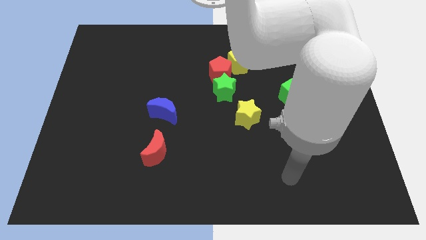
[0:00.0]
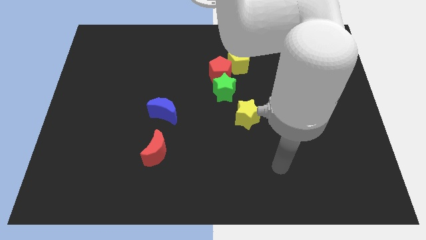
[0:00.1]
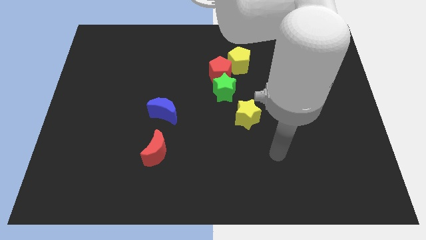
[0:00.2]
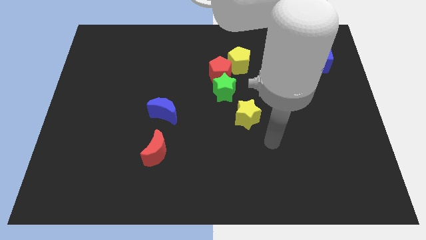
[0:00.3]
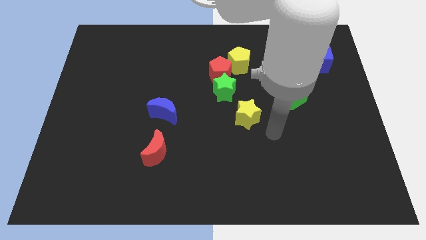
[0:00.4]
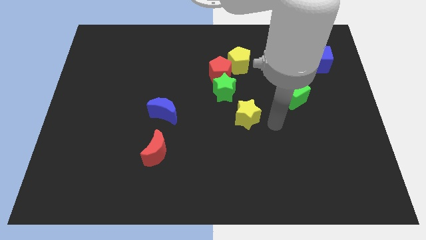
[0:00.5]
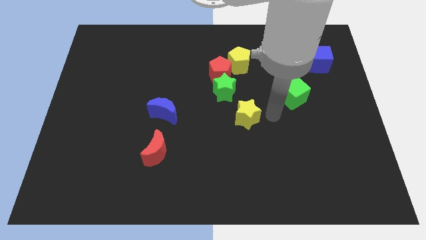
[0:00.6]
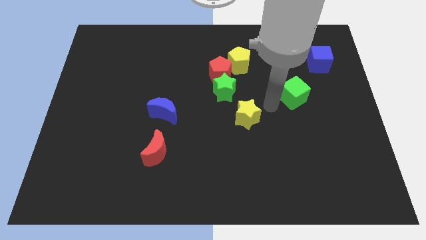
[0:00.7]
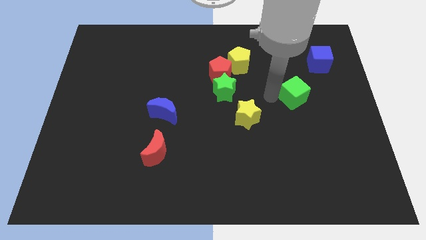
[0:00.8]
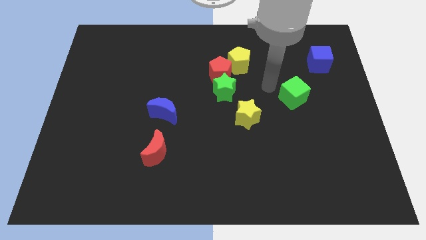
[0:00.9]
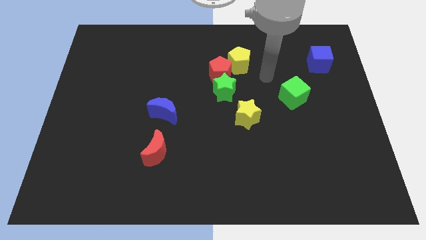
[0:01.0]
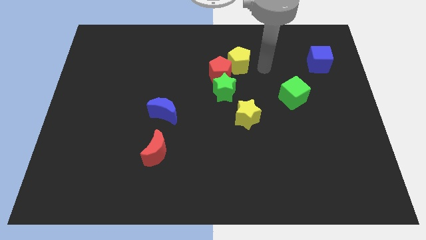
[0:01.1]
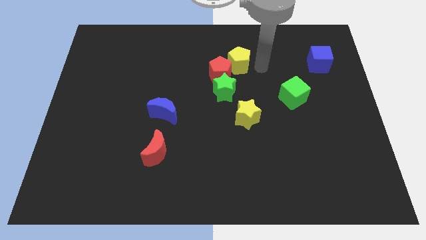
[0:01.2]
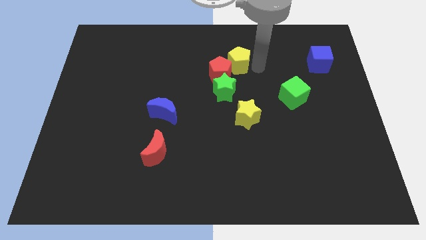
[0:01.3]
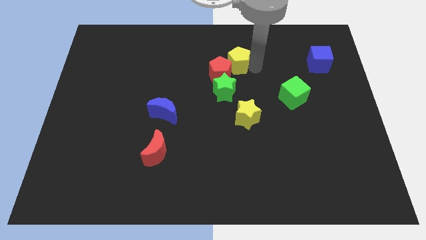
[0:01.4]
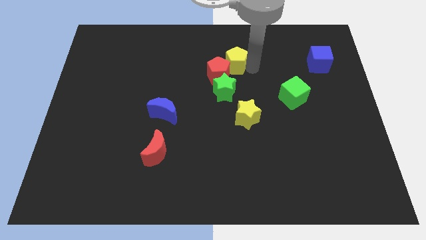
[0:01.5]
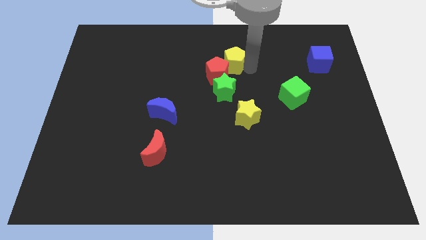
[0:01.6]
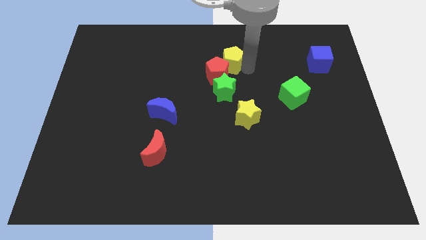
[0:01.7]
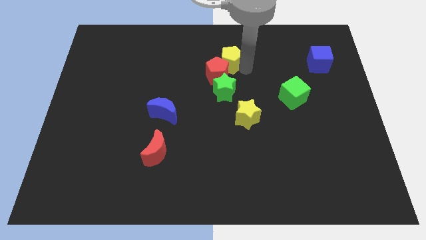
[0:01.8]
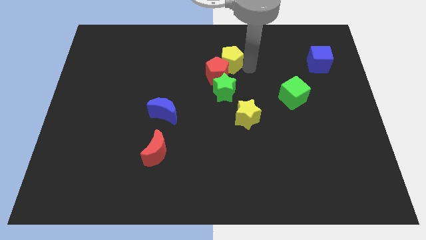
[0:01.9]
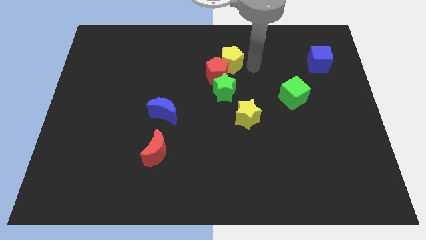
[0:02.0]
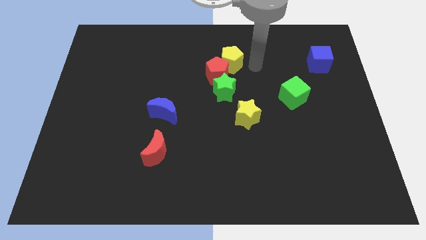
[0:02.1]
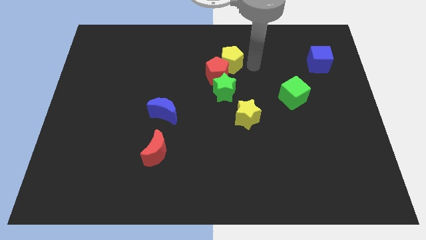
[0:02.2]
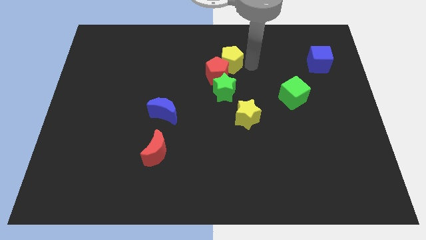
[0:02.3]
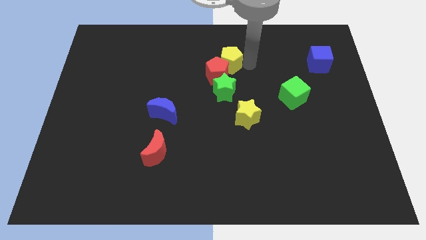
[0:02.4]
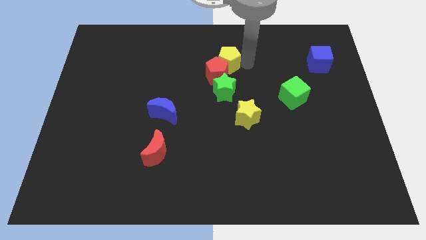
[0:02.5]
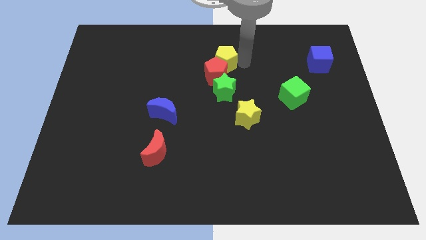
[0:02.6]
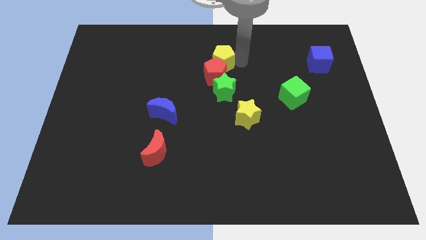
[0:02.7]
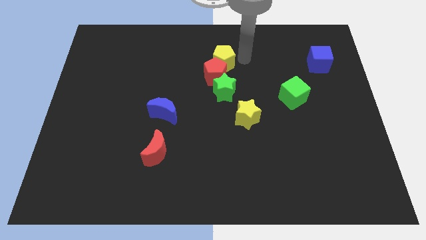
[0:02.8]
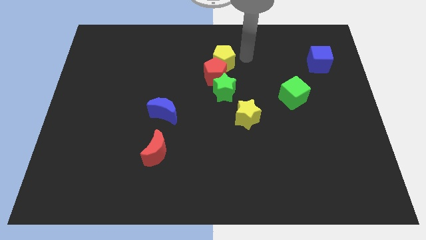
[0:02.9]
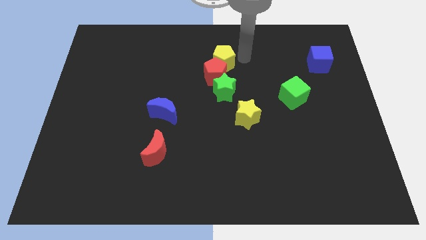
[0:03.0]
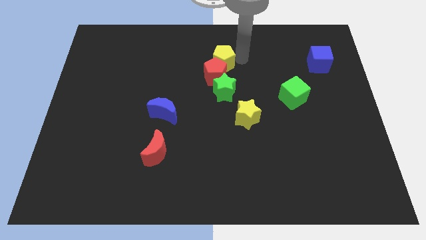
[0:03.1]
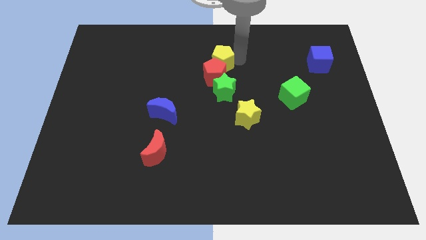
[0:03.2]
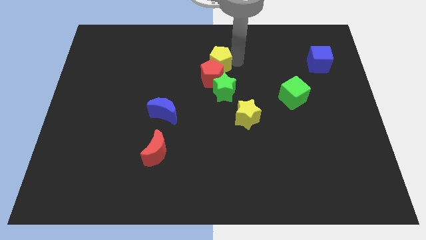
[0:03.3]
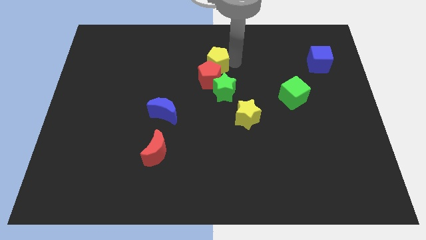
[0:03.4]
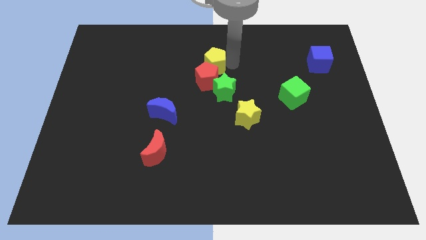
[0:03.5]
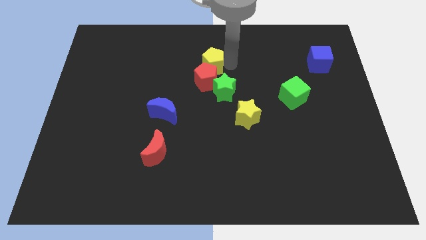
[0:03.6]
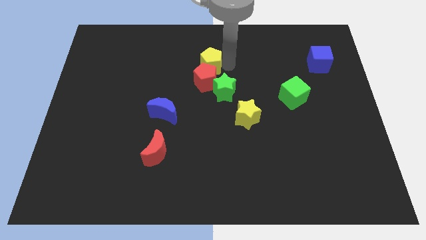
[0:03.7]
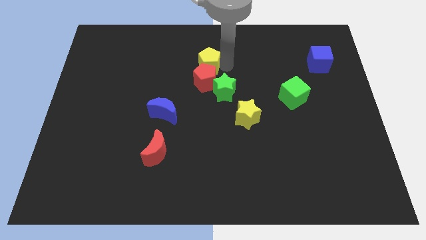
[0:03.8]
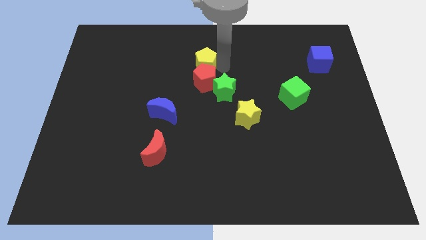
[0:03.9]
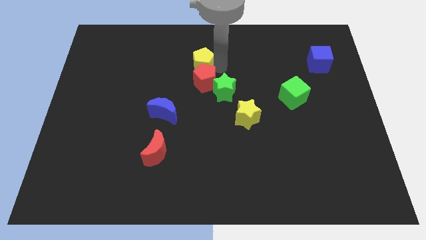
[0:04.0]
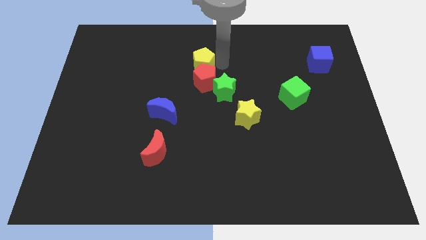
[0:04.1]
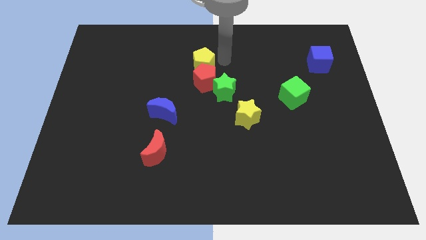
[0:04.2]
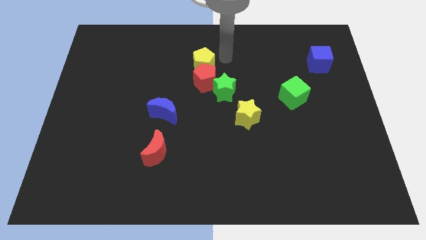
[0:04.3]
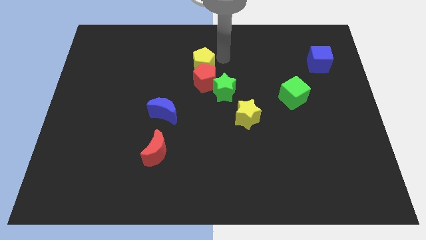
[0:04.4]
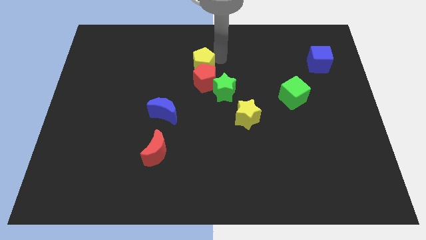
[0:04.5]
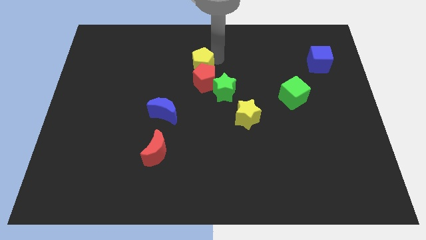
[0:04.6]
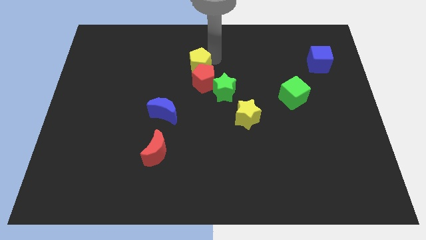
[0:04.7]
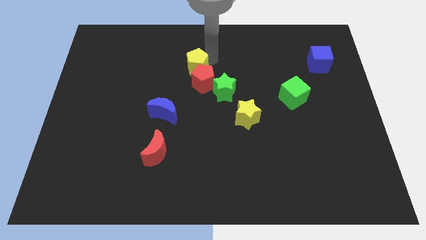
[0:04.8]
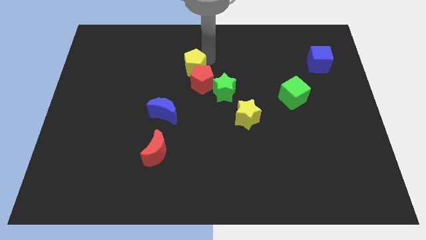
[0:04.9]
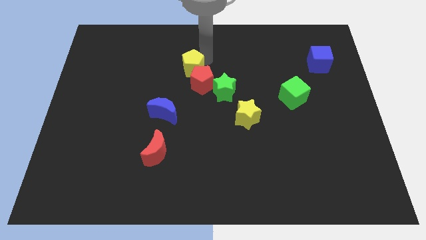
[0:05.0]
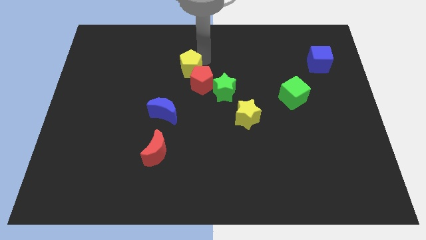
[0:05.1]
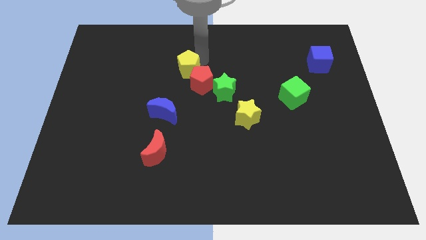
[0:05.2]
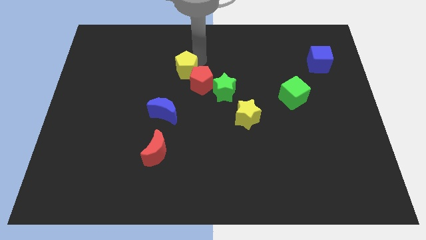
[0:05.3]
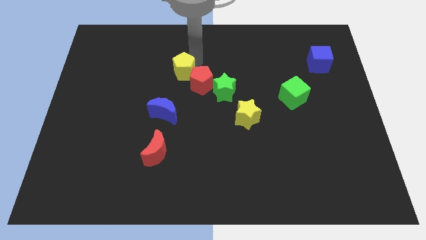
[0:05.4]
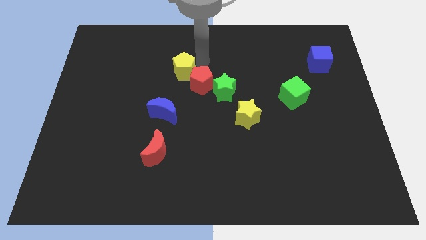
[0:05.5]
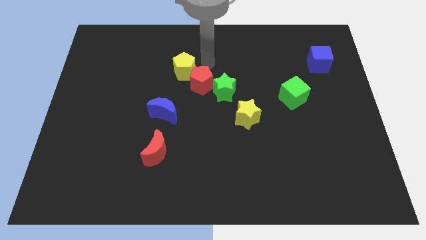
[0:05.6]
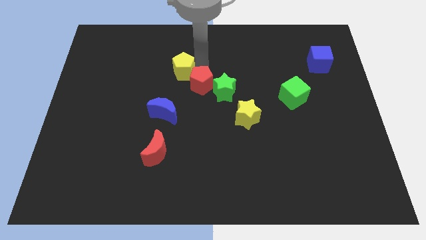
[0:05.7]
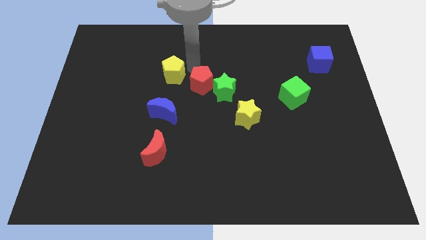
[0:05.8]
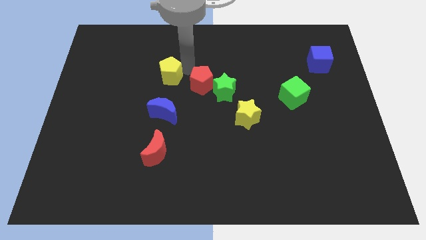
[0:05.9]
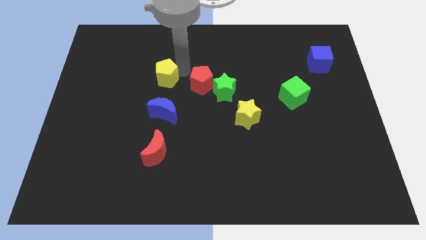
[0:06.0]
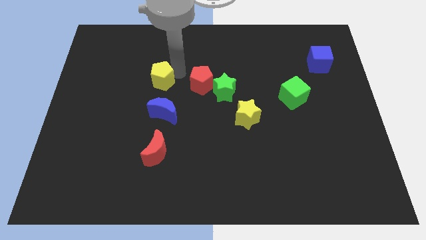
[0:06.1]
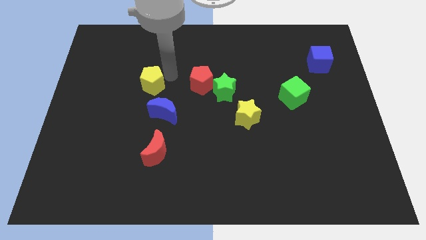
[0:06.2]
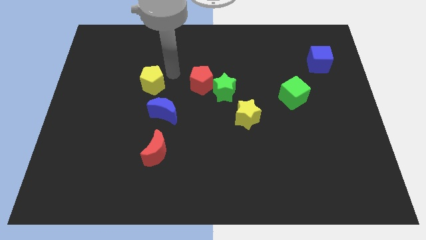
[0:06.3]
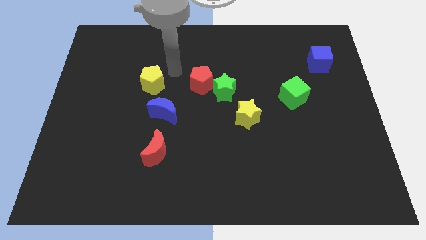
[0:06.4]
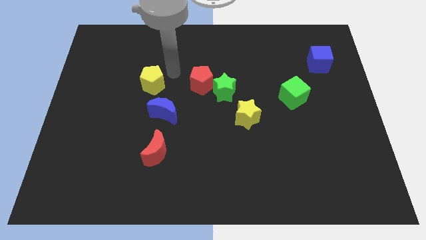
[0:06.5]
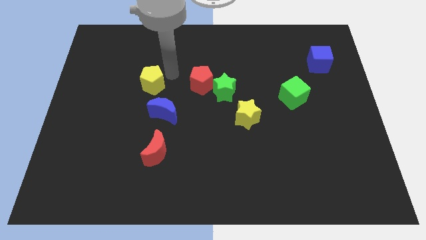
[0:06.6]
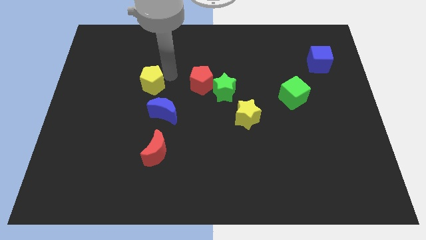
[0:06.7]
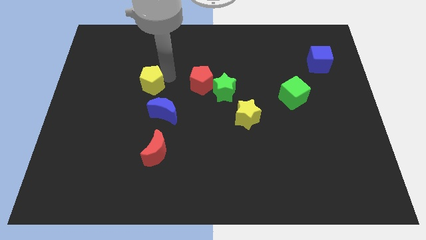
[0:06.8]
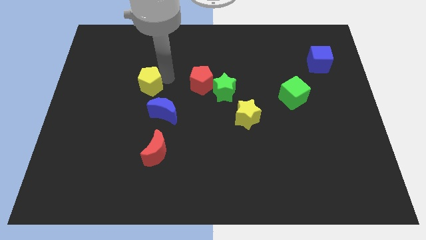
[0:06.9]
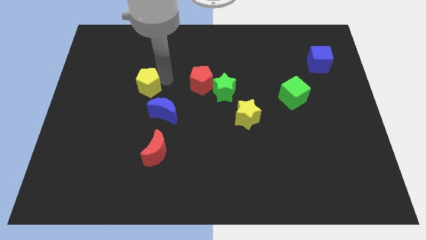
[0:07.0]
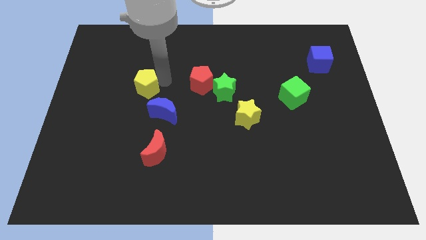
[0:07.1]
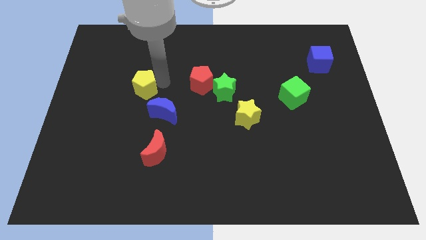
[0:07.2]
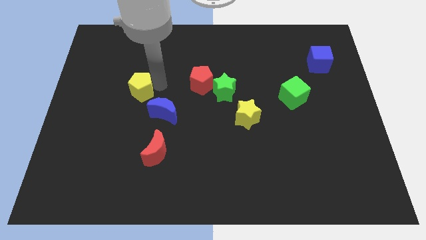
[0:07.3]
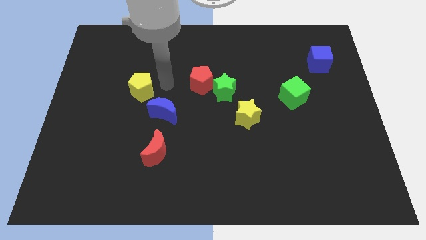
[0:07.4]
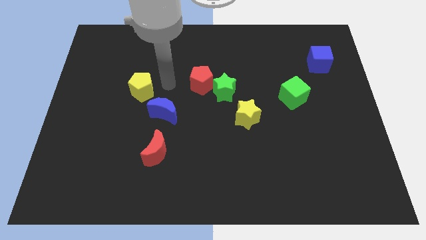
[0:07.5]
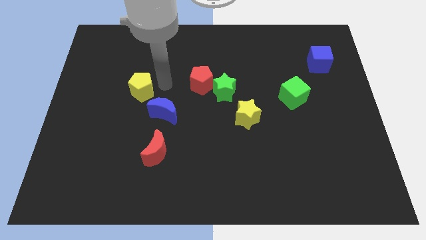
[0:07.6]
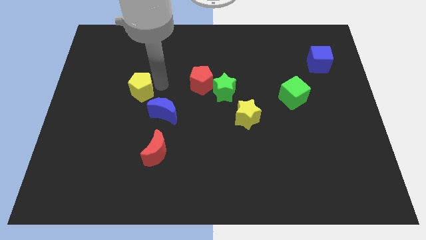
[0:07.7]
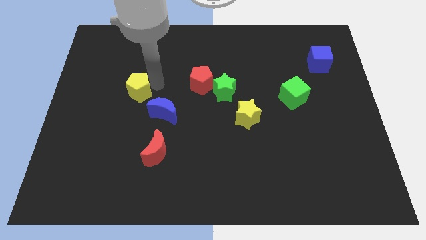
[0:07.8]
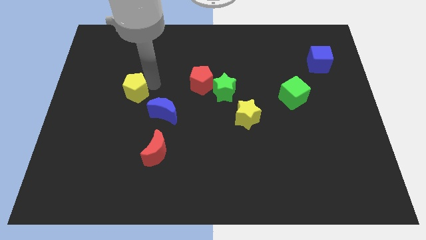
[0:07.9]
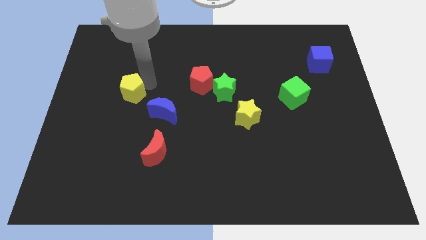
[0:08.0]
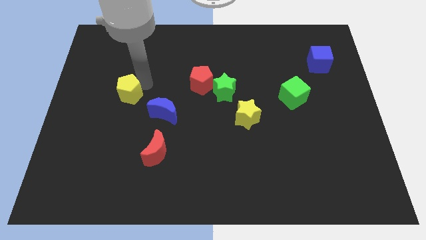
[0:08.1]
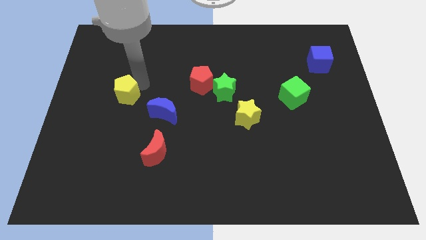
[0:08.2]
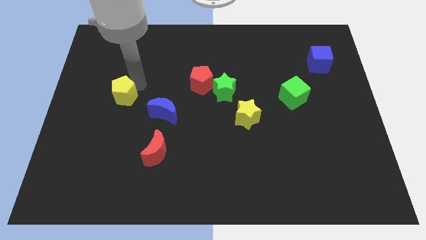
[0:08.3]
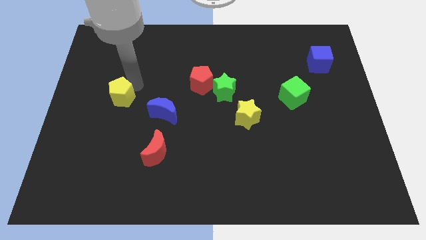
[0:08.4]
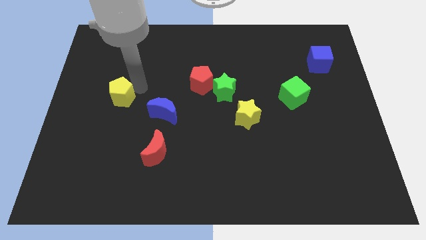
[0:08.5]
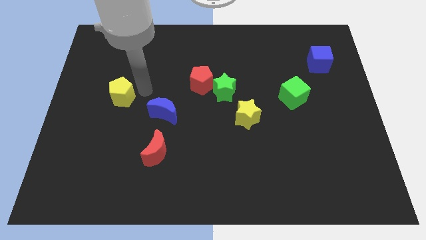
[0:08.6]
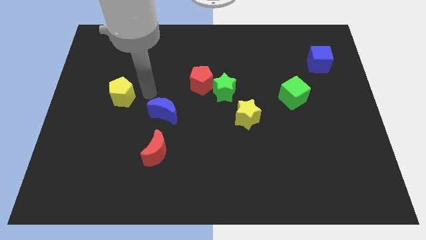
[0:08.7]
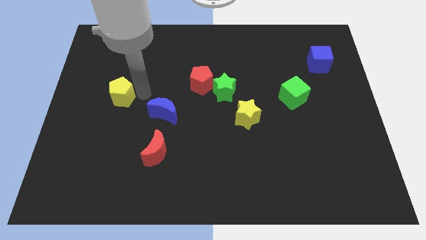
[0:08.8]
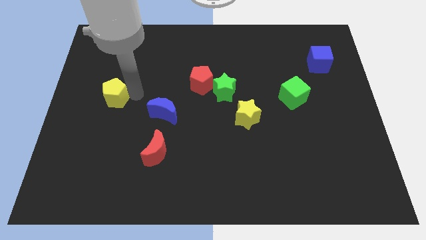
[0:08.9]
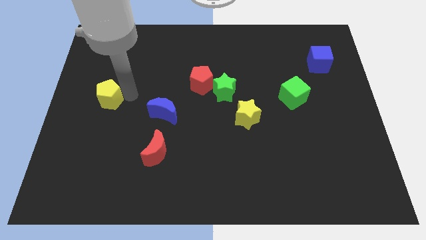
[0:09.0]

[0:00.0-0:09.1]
slide the yellow pentagon to the left side of the board
